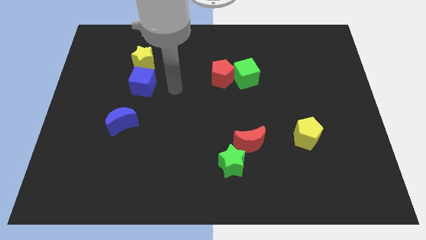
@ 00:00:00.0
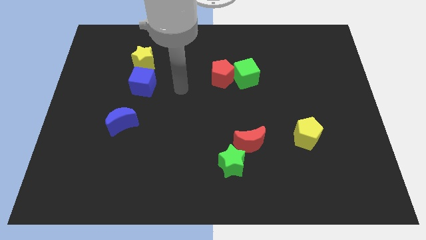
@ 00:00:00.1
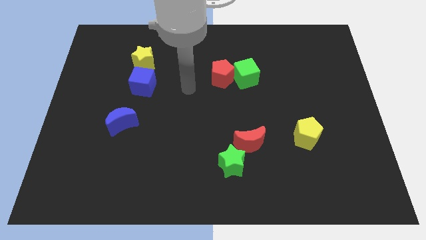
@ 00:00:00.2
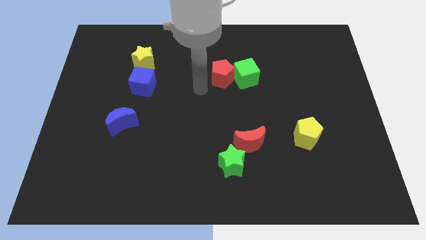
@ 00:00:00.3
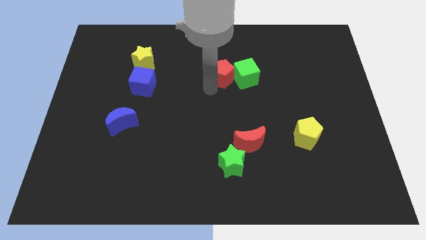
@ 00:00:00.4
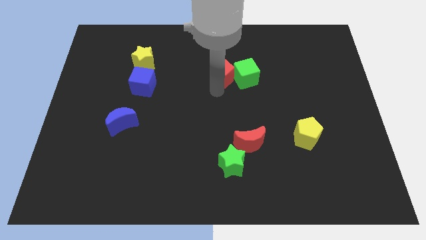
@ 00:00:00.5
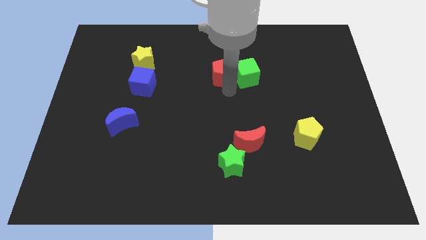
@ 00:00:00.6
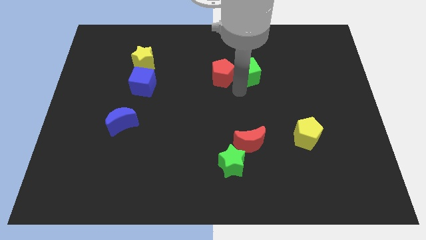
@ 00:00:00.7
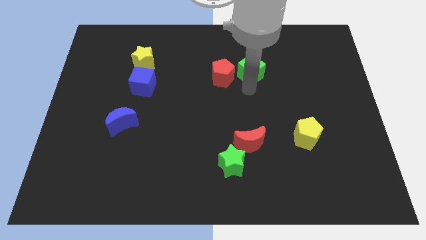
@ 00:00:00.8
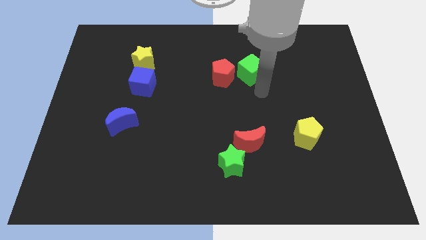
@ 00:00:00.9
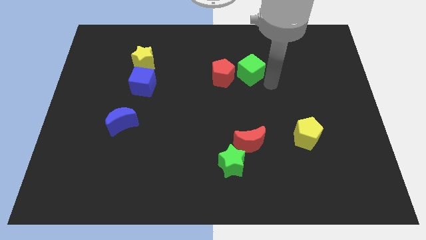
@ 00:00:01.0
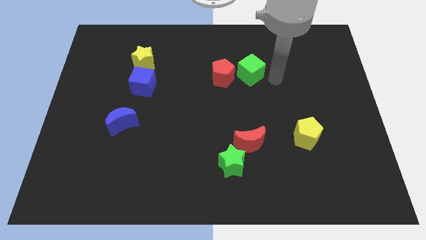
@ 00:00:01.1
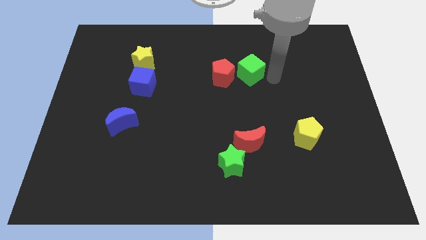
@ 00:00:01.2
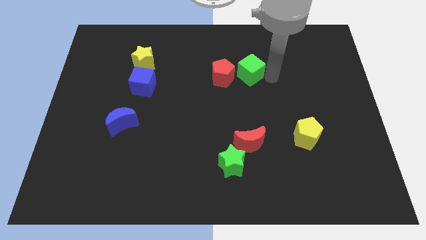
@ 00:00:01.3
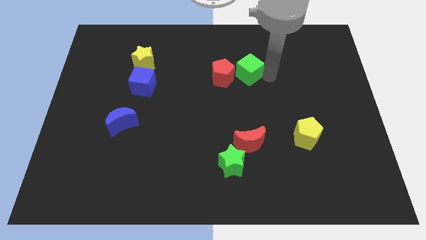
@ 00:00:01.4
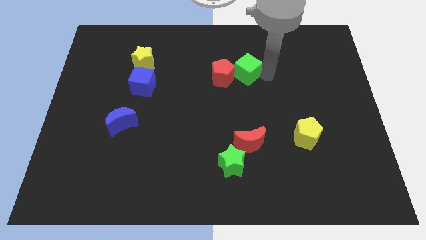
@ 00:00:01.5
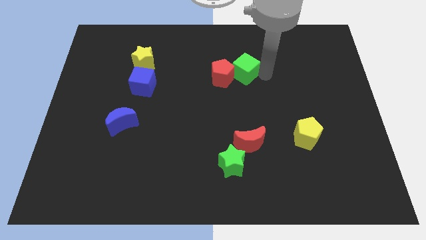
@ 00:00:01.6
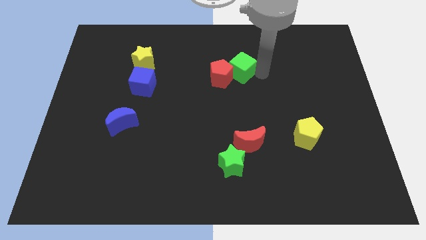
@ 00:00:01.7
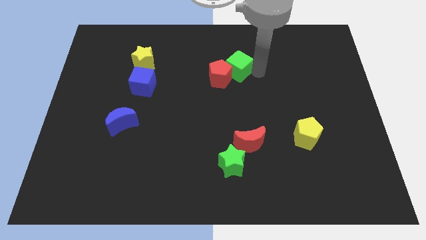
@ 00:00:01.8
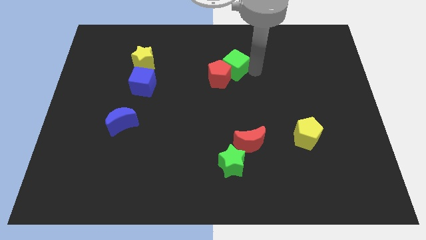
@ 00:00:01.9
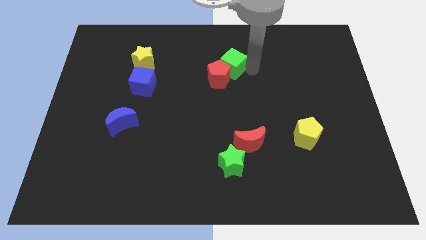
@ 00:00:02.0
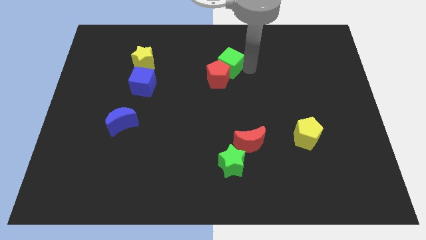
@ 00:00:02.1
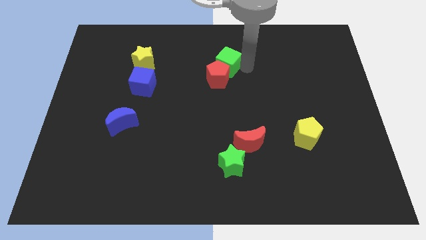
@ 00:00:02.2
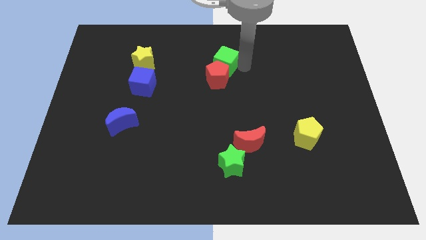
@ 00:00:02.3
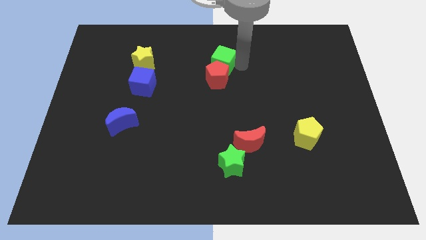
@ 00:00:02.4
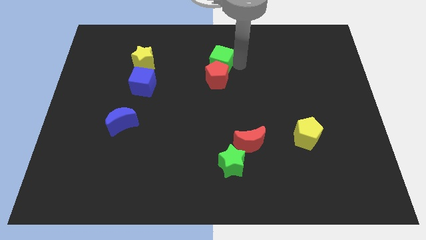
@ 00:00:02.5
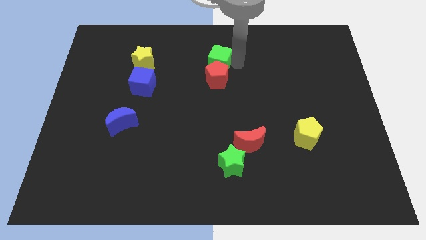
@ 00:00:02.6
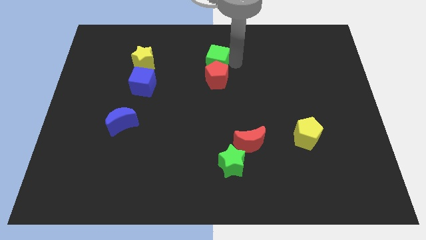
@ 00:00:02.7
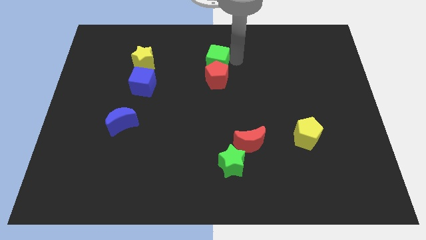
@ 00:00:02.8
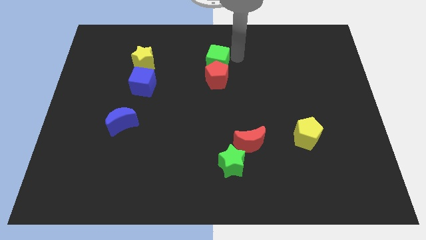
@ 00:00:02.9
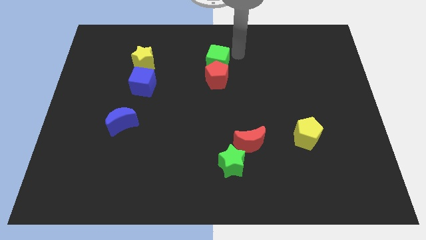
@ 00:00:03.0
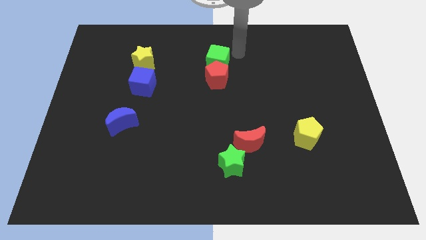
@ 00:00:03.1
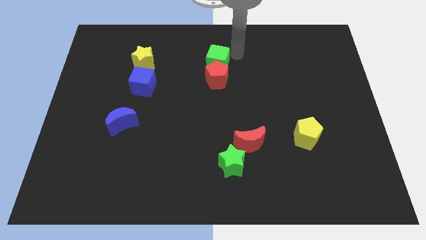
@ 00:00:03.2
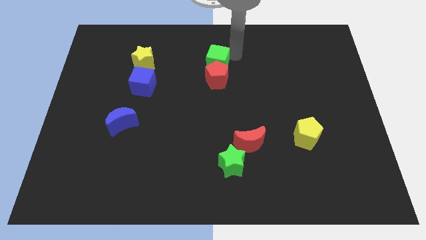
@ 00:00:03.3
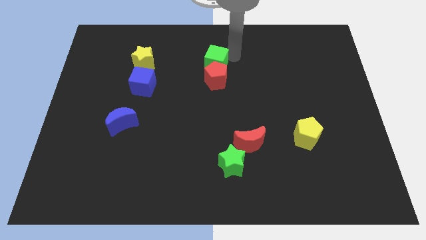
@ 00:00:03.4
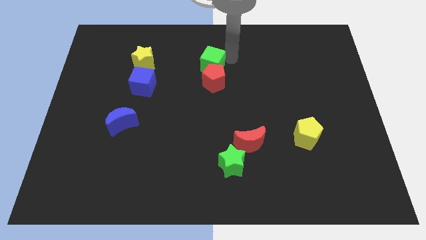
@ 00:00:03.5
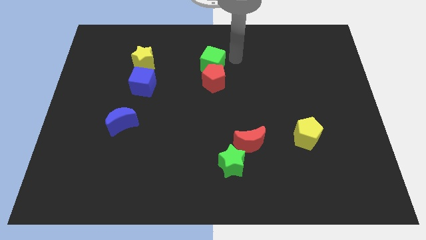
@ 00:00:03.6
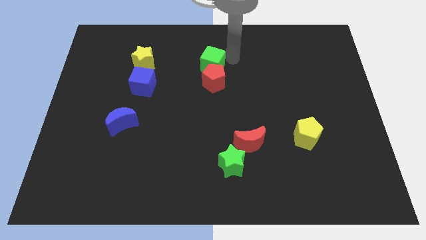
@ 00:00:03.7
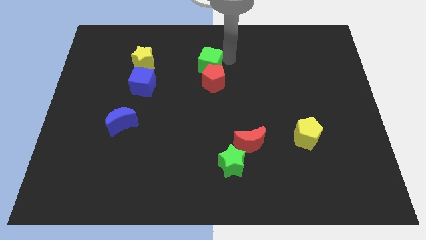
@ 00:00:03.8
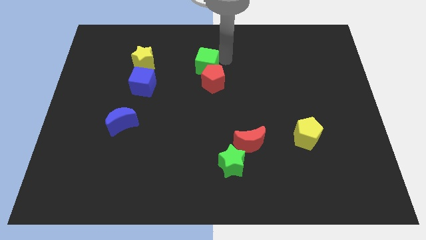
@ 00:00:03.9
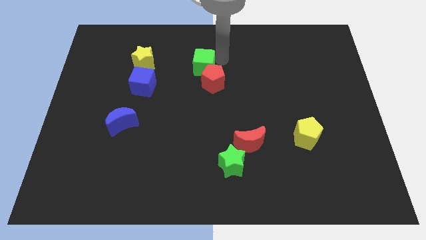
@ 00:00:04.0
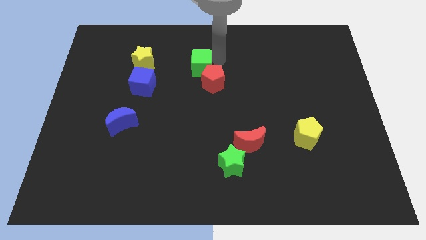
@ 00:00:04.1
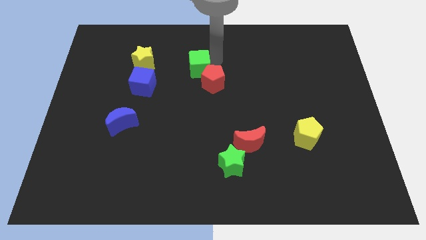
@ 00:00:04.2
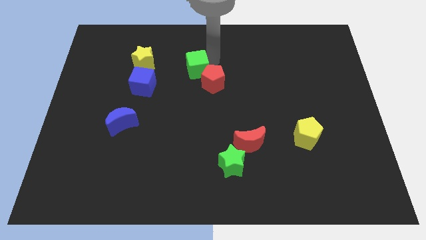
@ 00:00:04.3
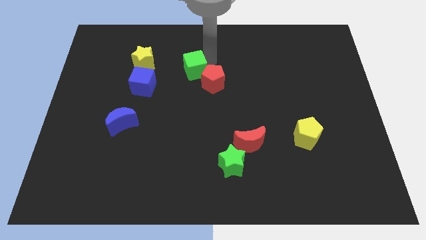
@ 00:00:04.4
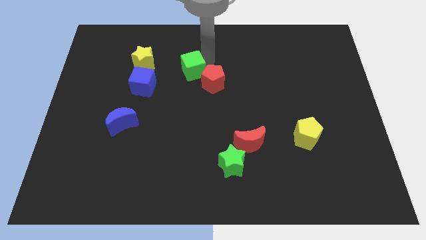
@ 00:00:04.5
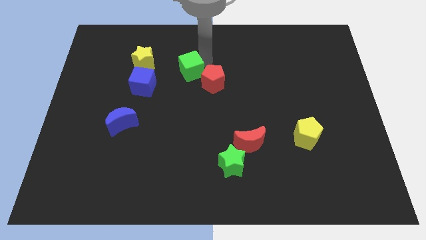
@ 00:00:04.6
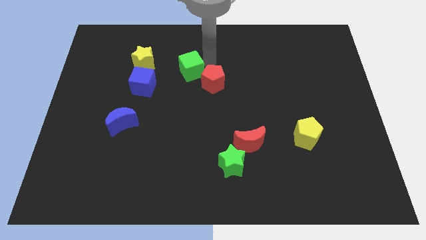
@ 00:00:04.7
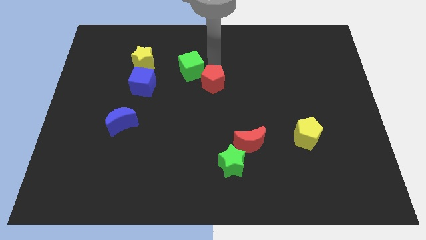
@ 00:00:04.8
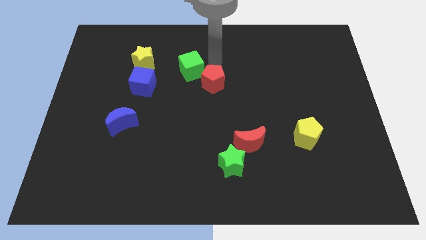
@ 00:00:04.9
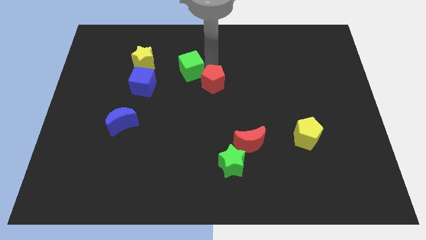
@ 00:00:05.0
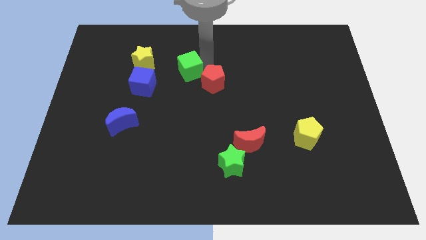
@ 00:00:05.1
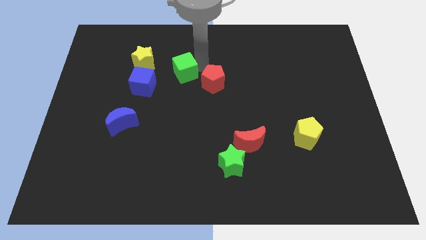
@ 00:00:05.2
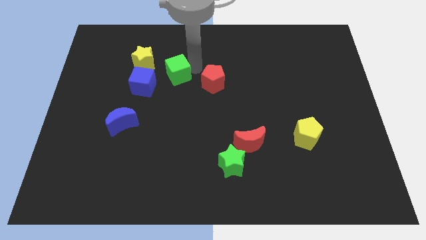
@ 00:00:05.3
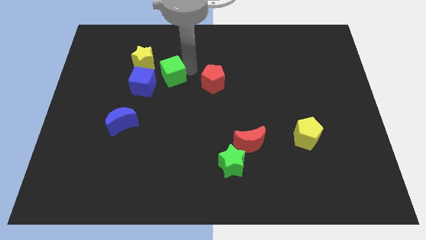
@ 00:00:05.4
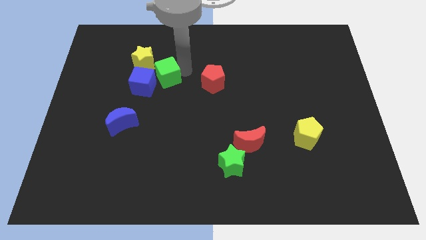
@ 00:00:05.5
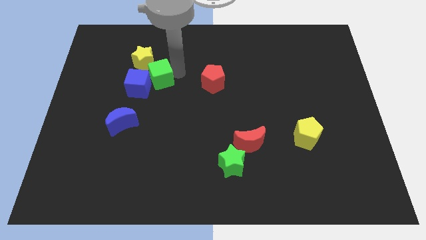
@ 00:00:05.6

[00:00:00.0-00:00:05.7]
move the green cube to the blue cube

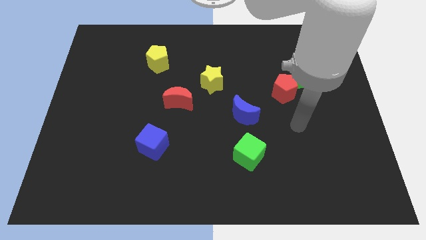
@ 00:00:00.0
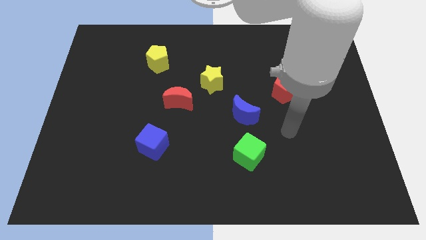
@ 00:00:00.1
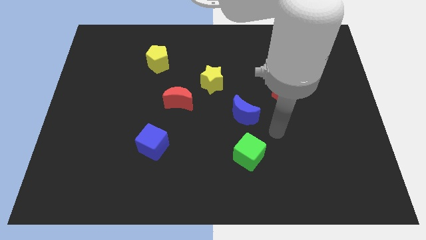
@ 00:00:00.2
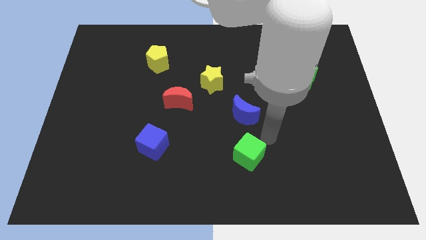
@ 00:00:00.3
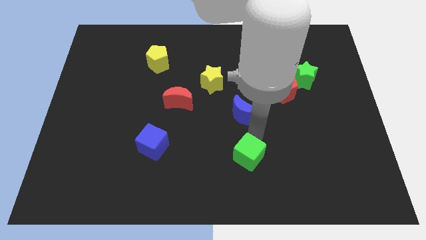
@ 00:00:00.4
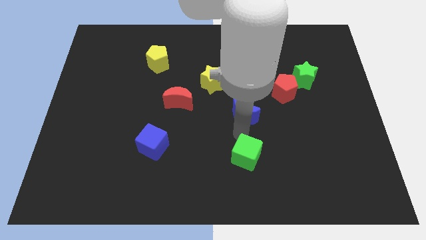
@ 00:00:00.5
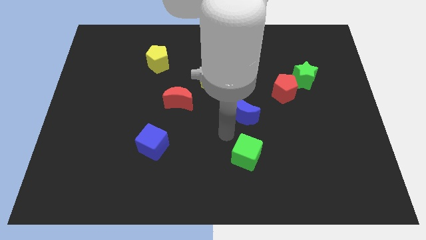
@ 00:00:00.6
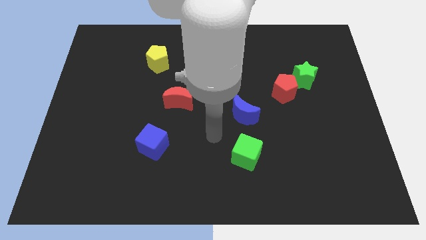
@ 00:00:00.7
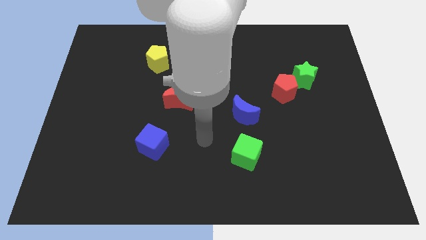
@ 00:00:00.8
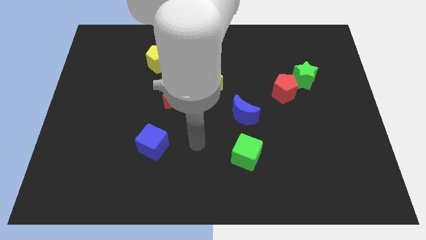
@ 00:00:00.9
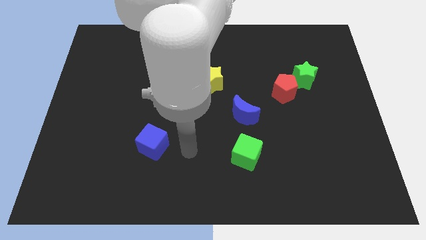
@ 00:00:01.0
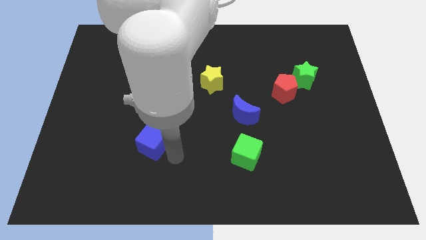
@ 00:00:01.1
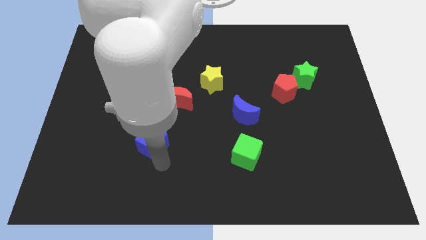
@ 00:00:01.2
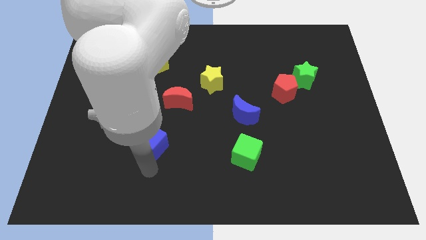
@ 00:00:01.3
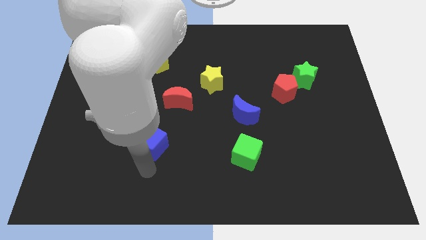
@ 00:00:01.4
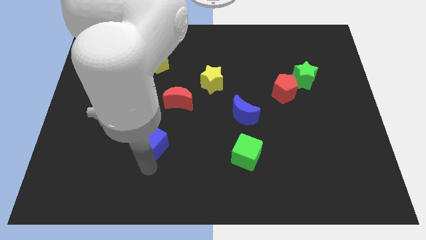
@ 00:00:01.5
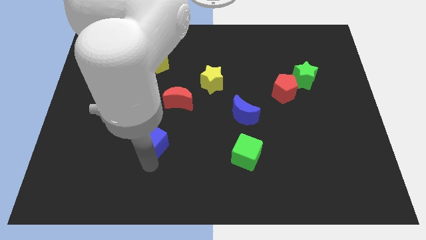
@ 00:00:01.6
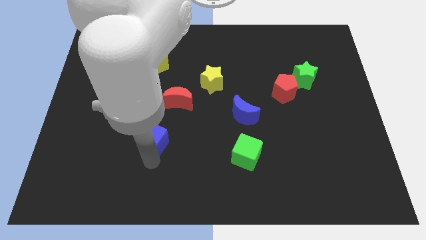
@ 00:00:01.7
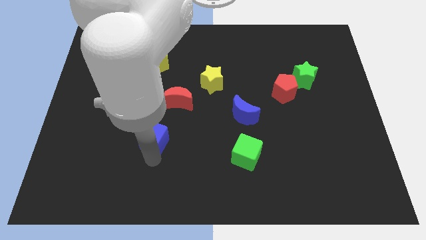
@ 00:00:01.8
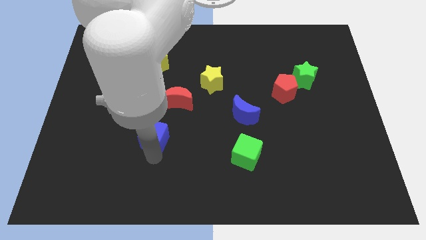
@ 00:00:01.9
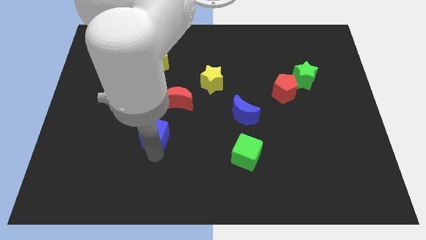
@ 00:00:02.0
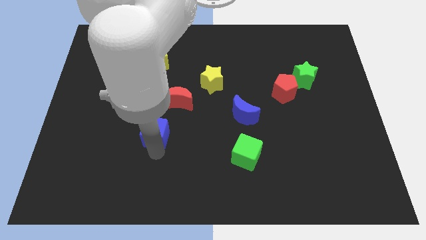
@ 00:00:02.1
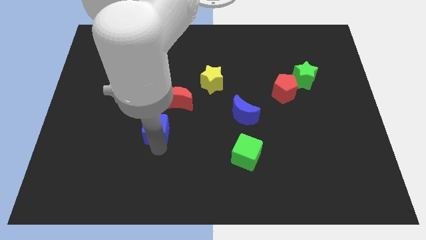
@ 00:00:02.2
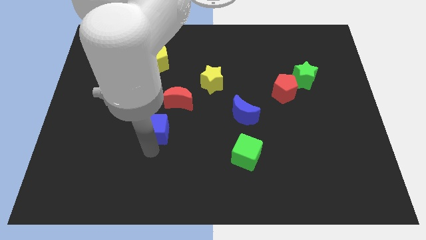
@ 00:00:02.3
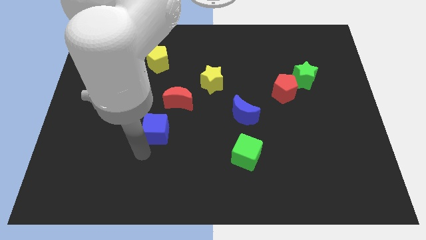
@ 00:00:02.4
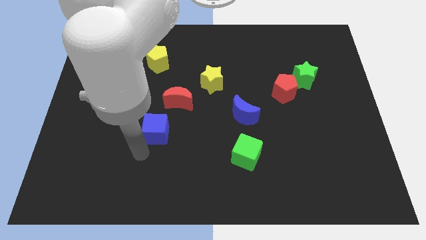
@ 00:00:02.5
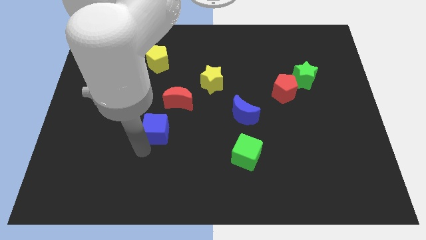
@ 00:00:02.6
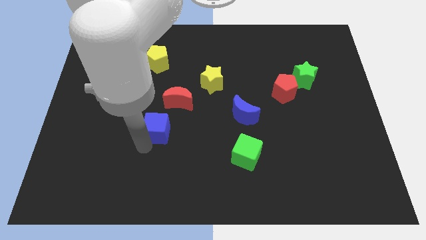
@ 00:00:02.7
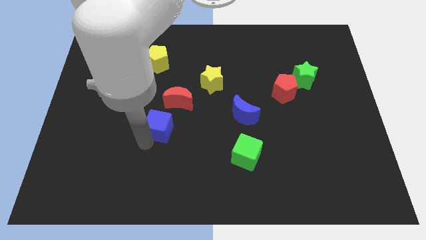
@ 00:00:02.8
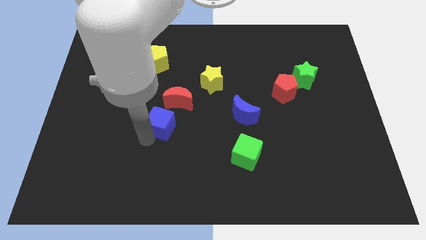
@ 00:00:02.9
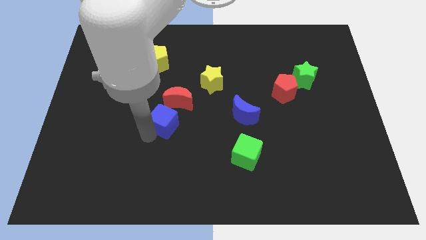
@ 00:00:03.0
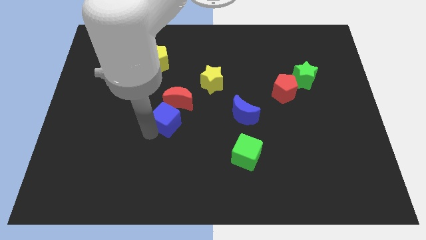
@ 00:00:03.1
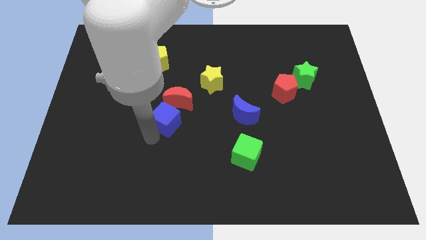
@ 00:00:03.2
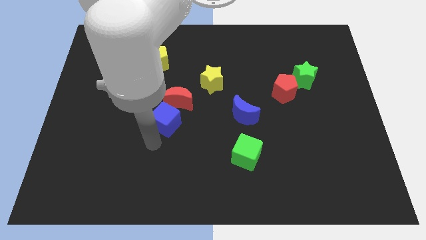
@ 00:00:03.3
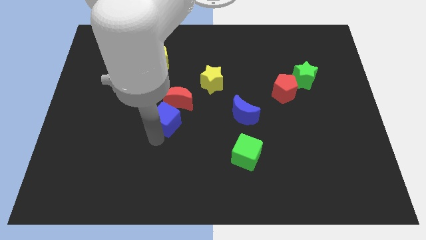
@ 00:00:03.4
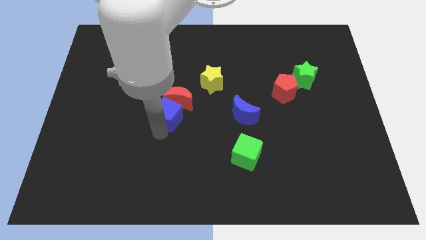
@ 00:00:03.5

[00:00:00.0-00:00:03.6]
push the blue cube towards the red moon
